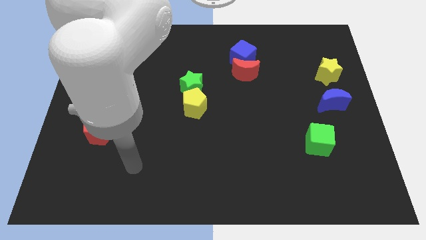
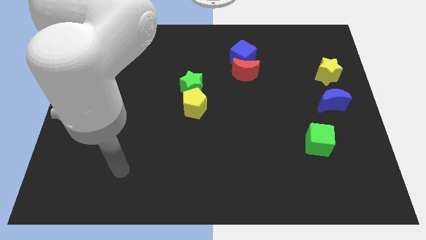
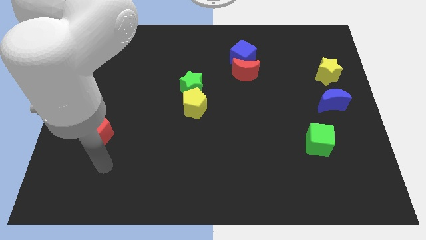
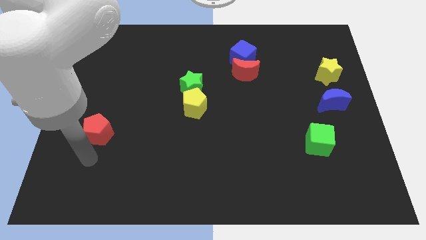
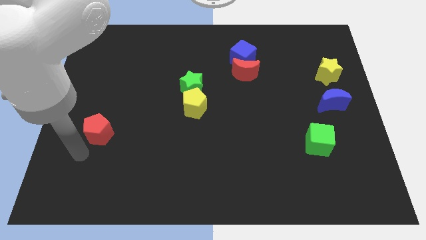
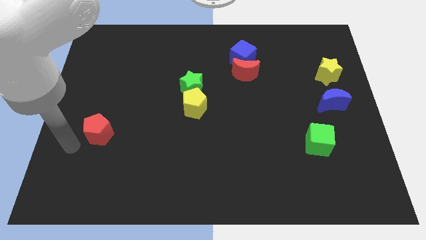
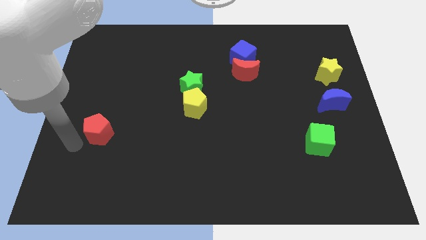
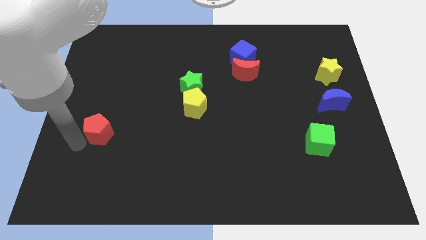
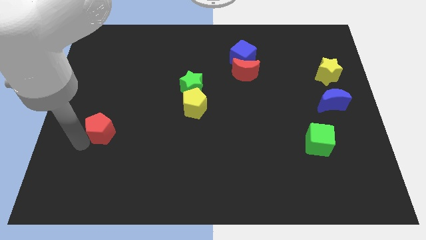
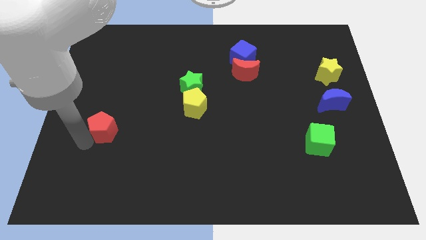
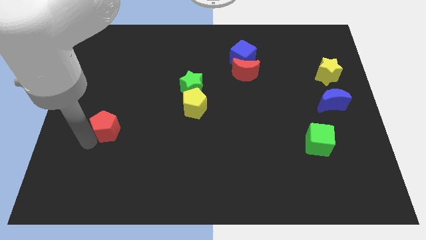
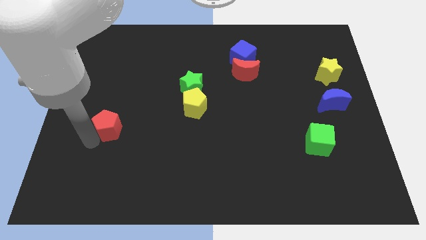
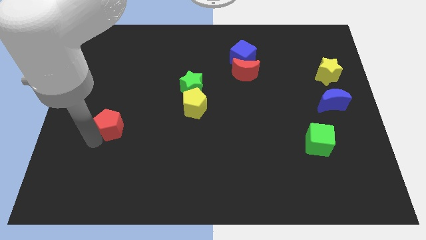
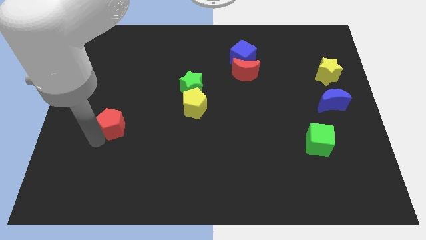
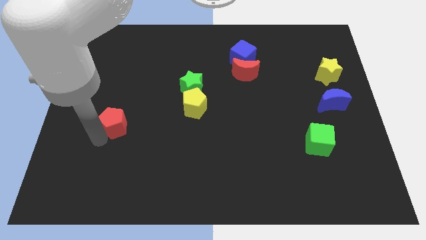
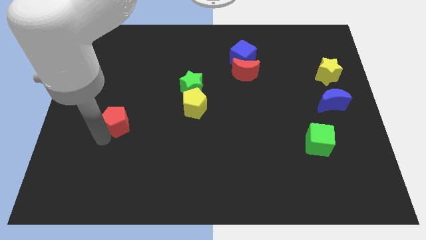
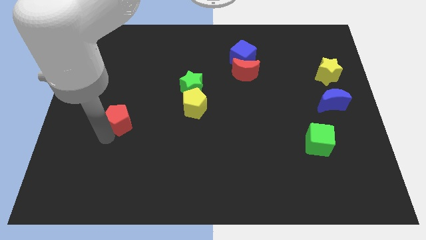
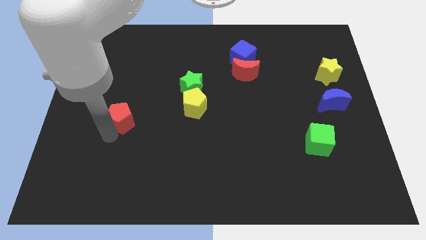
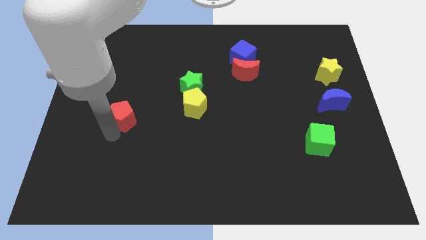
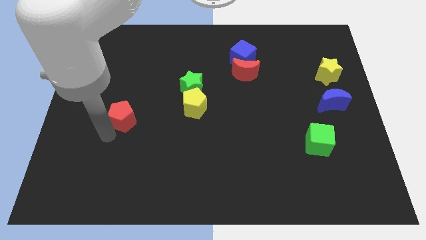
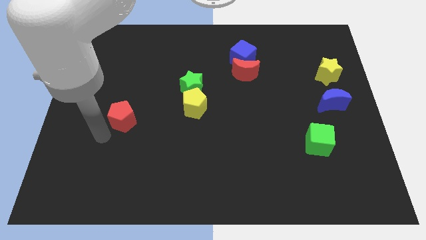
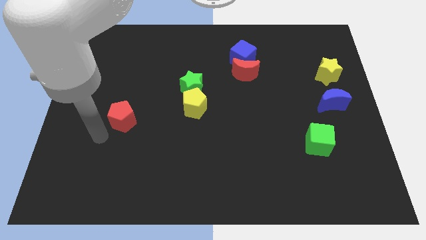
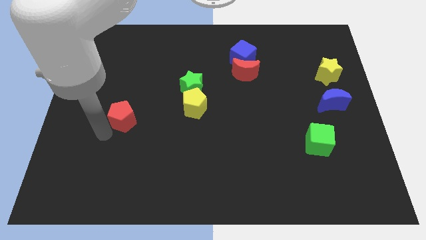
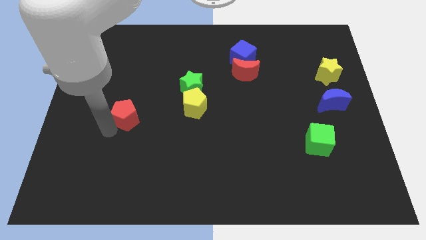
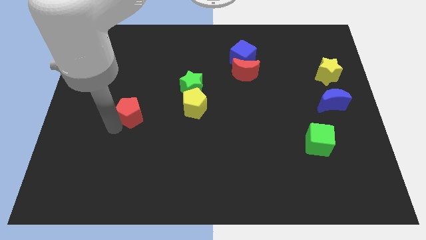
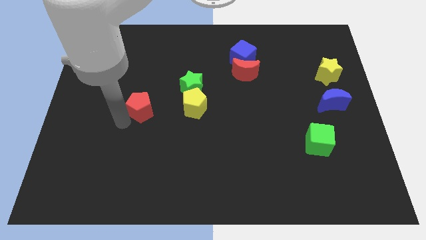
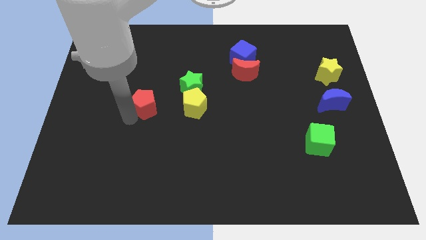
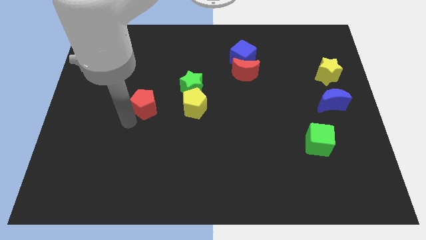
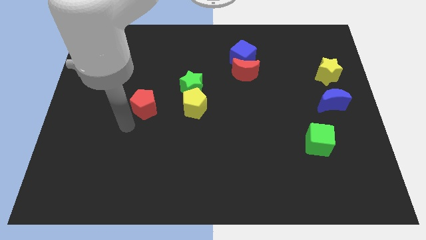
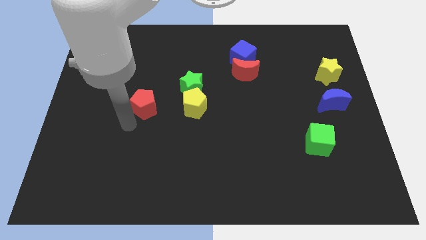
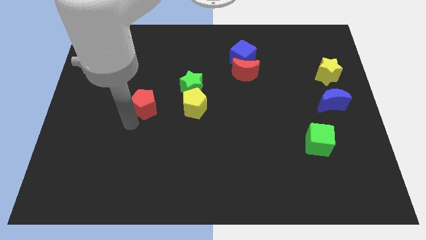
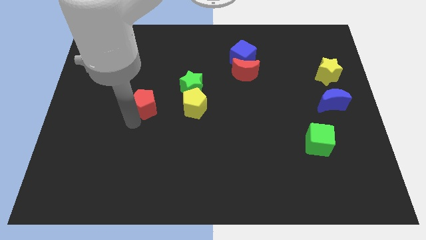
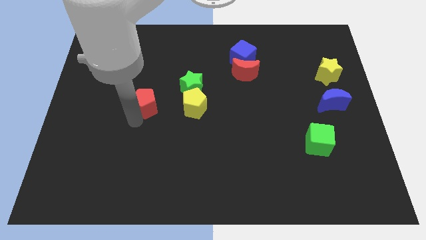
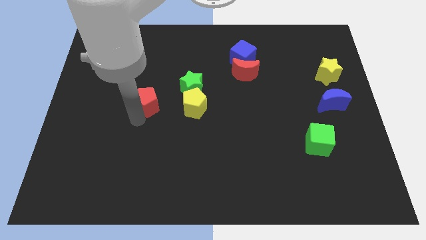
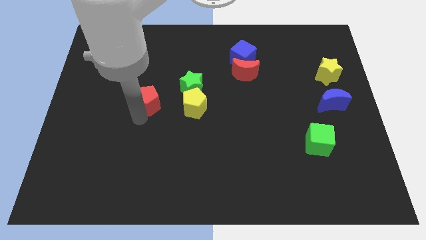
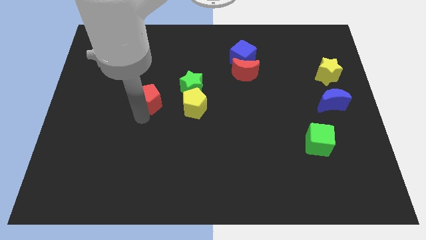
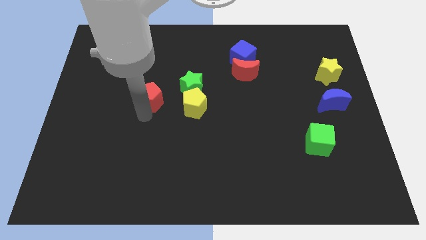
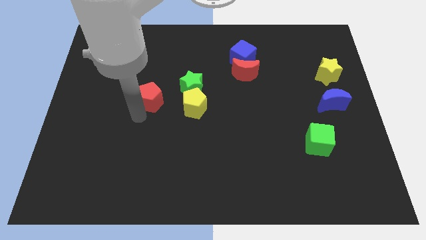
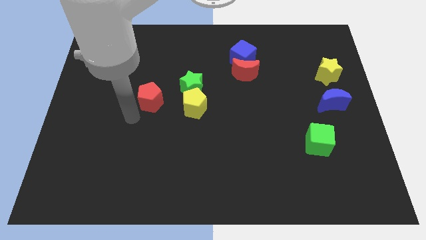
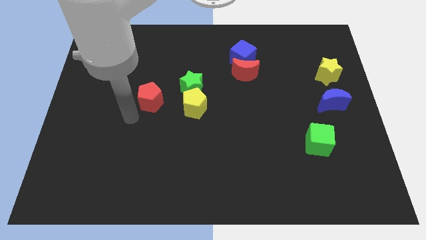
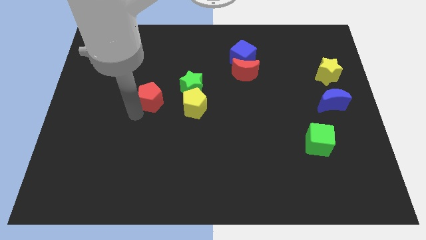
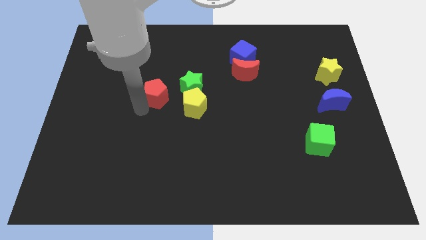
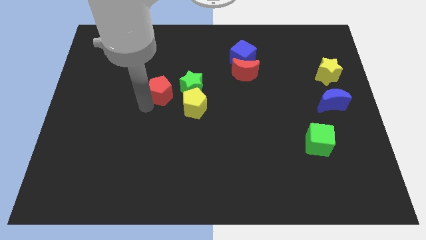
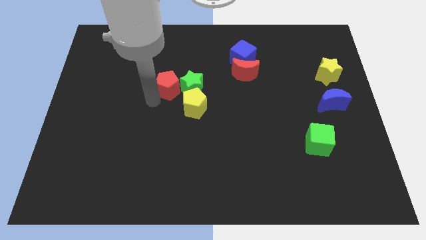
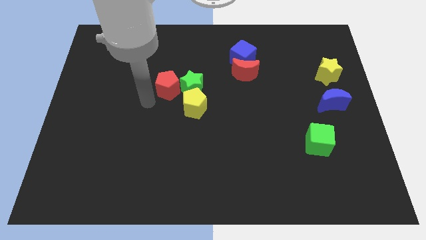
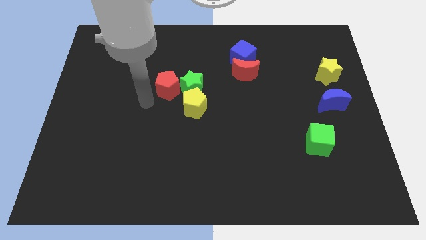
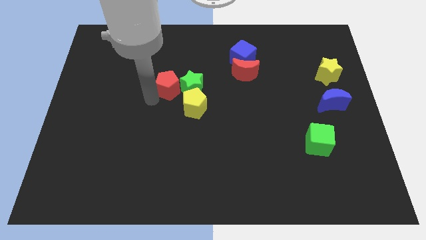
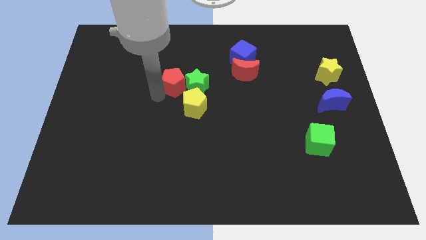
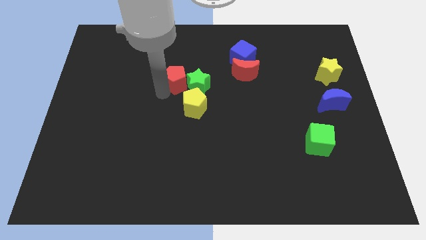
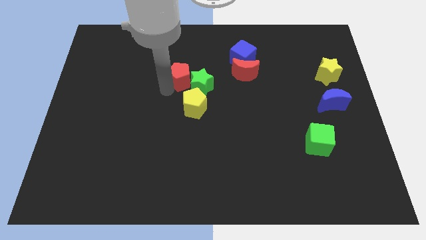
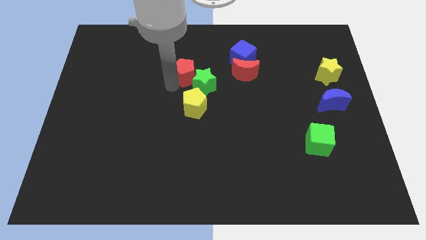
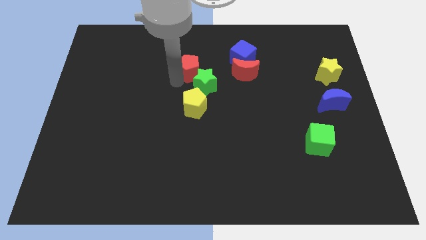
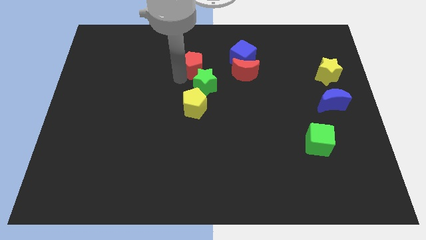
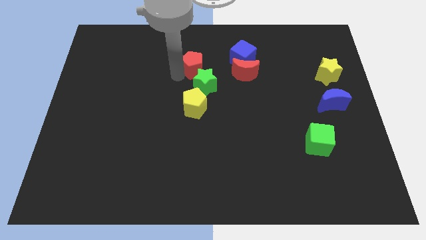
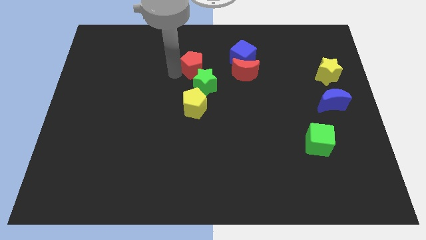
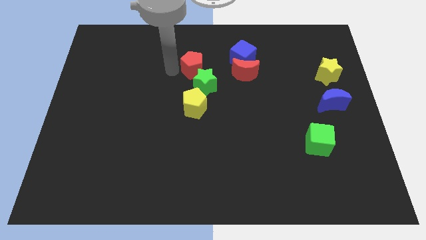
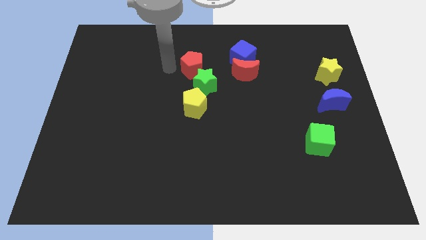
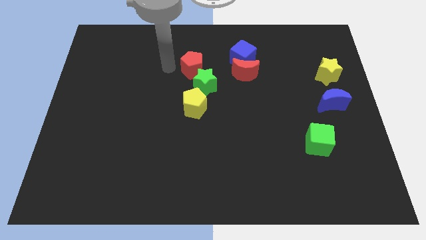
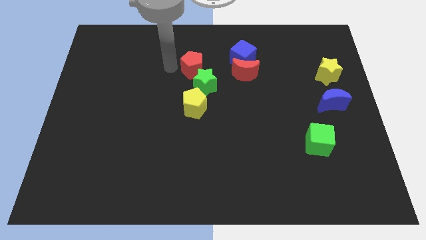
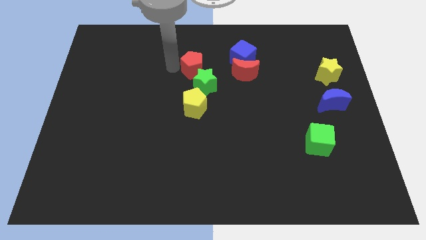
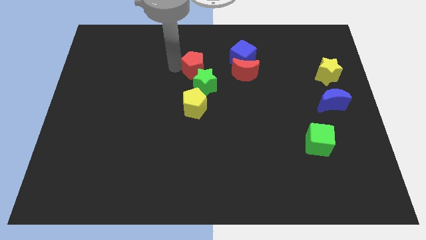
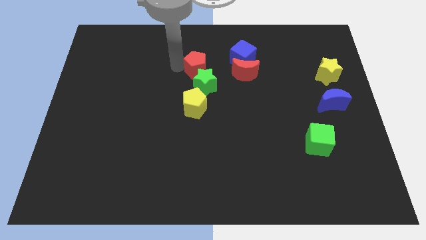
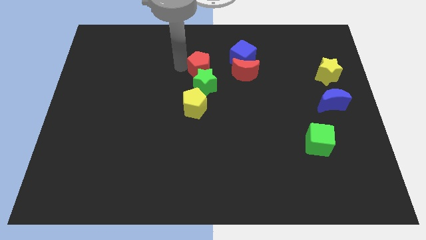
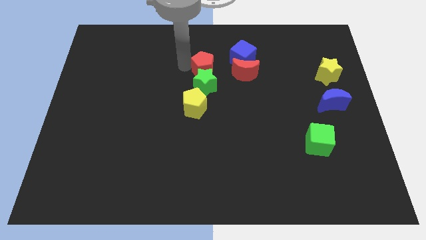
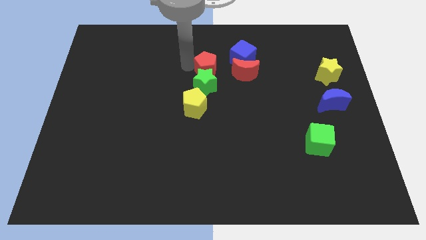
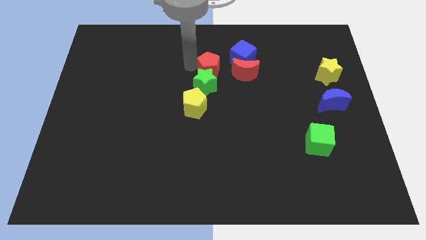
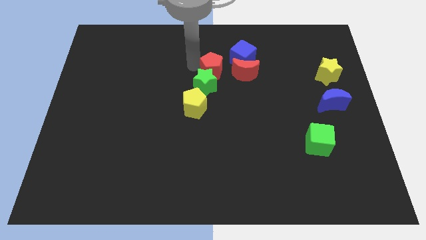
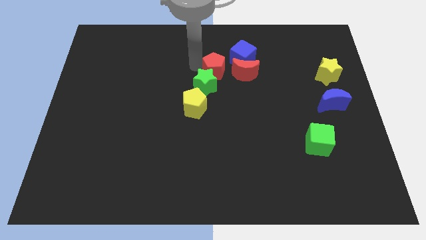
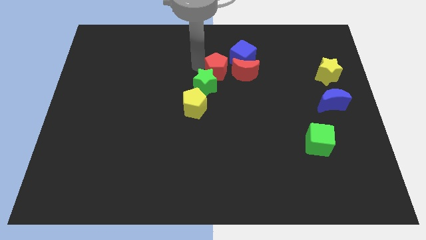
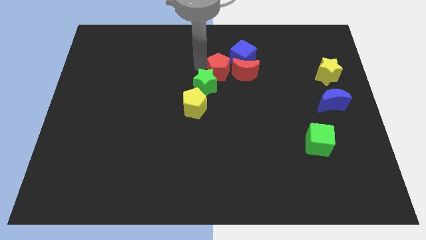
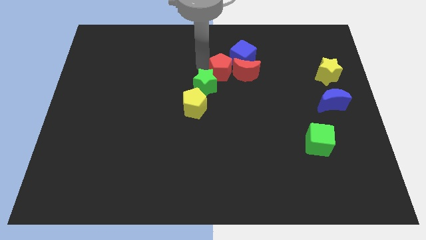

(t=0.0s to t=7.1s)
put the red pentagon to the red moon
